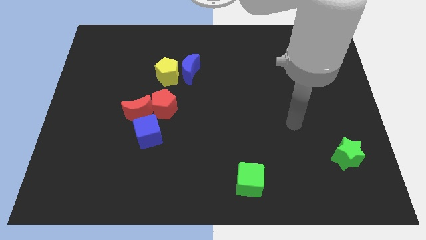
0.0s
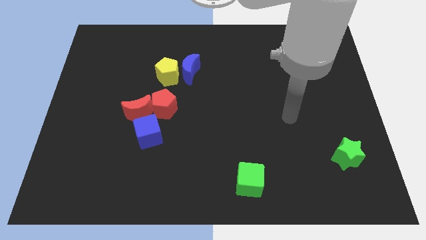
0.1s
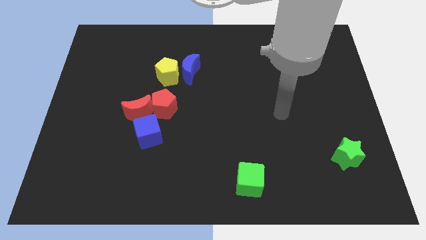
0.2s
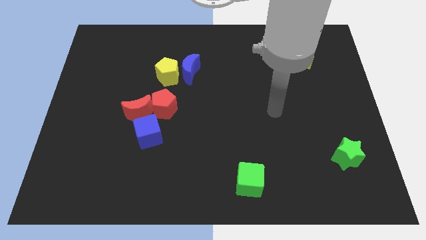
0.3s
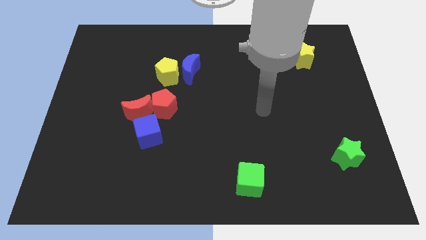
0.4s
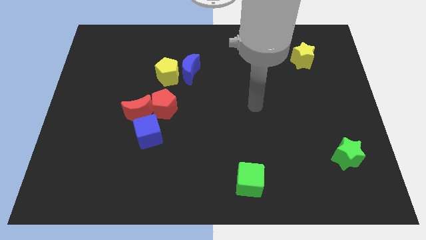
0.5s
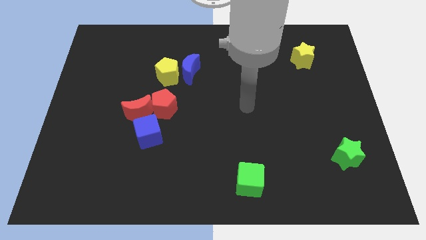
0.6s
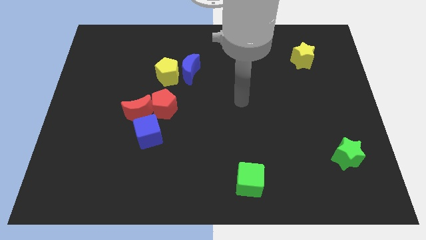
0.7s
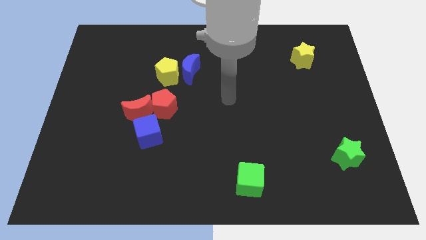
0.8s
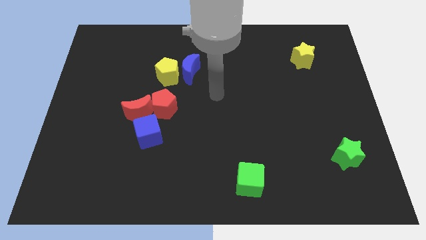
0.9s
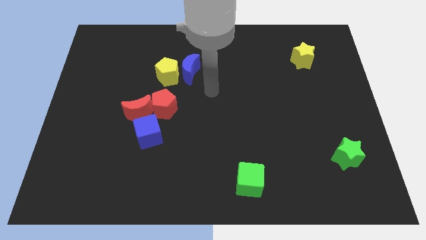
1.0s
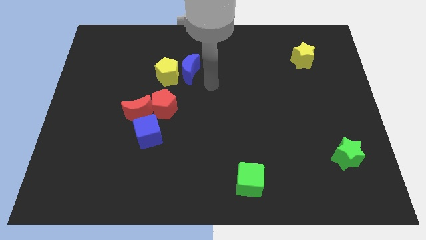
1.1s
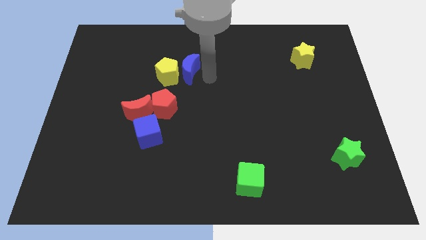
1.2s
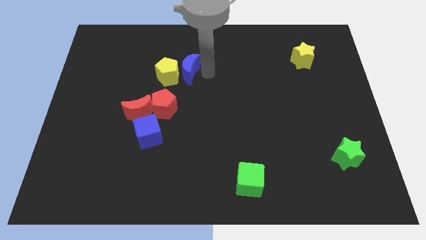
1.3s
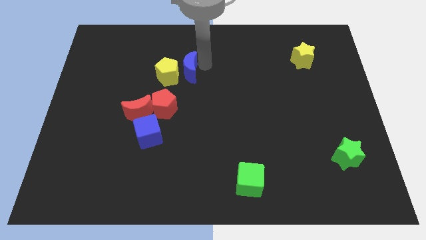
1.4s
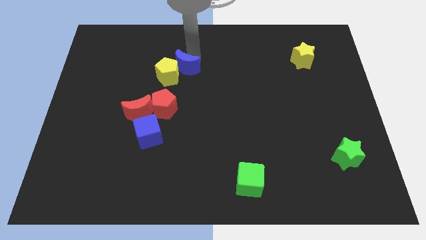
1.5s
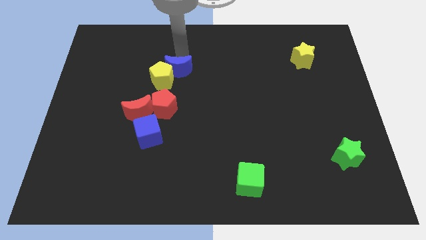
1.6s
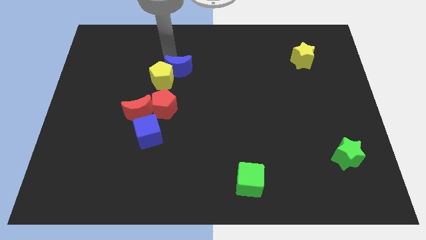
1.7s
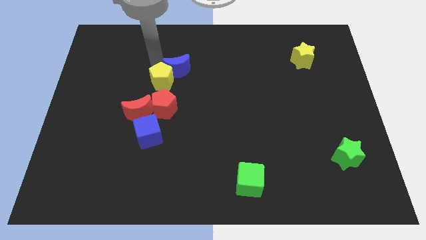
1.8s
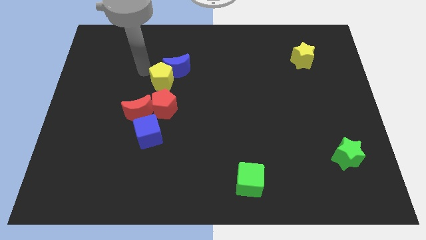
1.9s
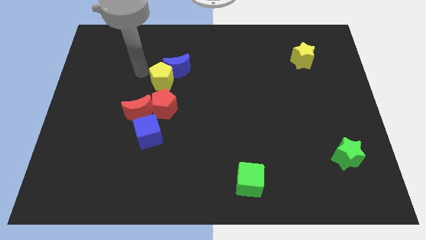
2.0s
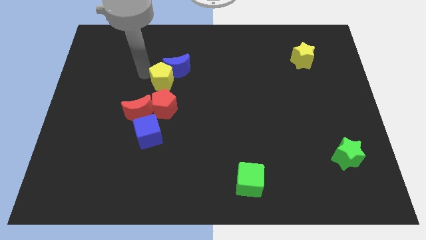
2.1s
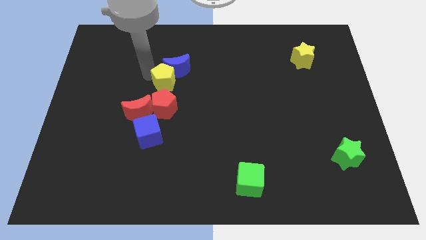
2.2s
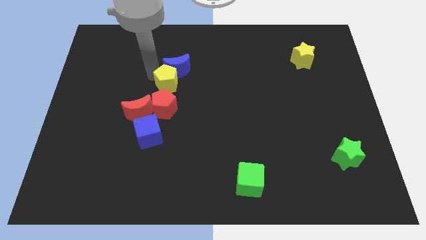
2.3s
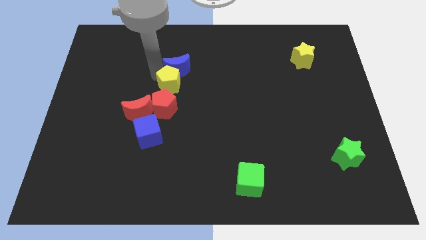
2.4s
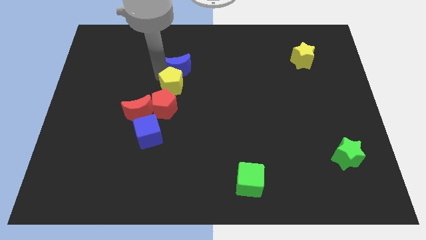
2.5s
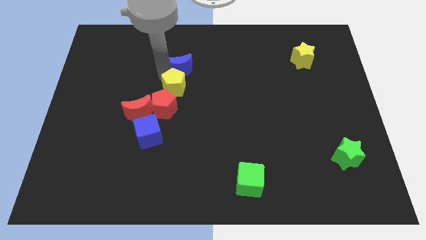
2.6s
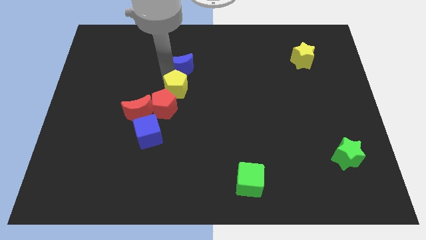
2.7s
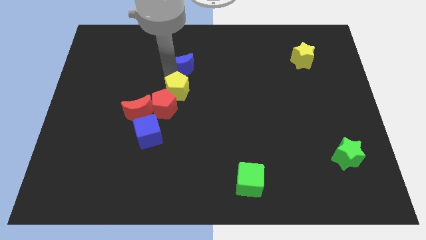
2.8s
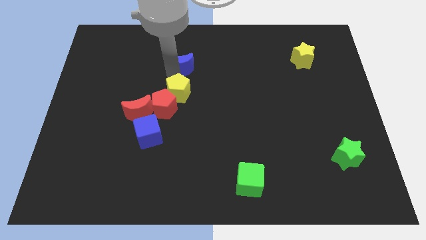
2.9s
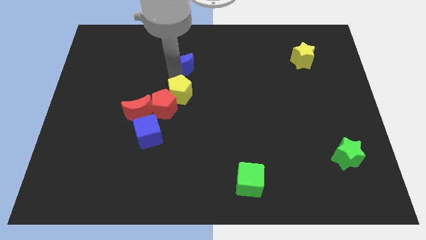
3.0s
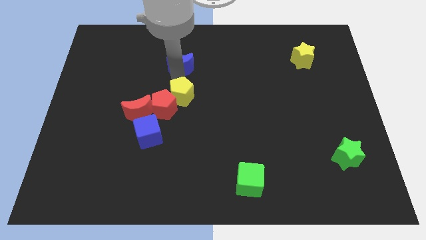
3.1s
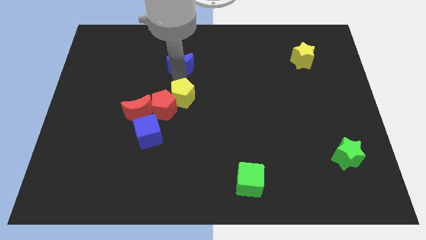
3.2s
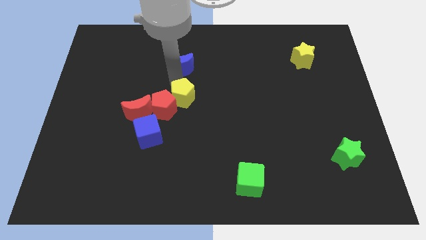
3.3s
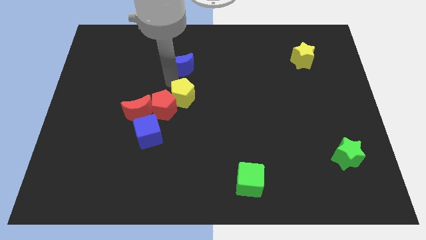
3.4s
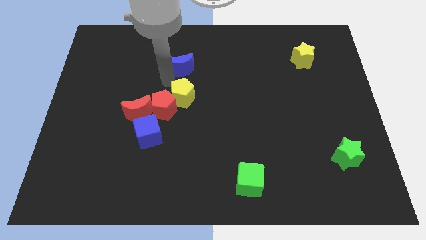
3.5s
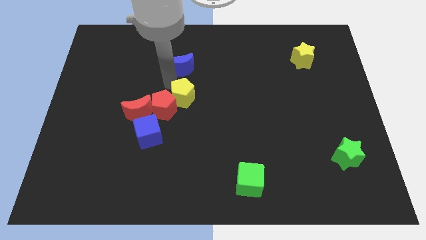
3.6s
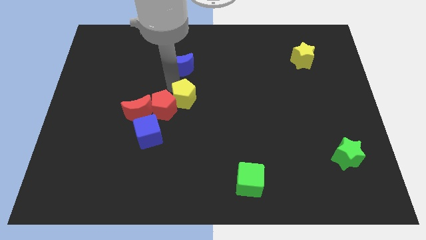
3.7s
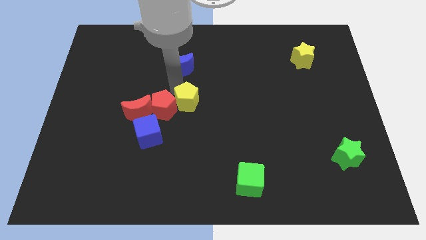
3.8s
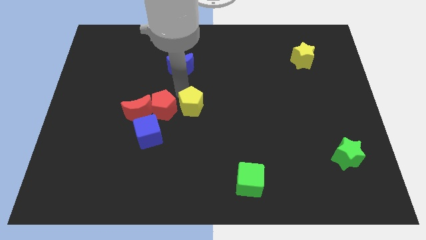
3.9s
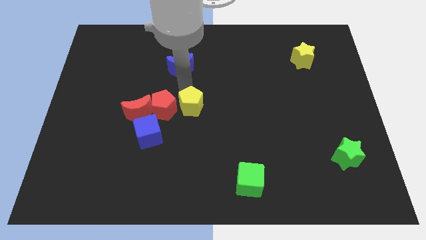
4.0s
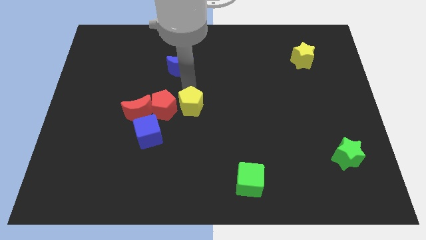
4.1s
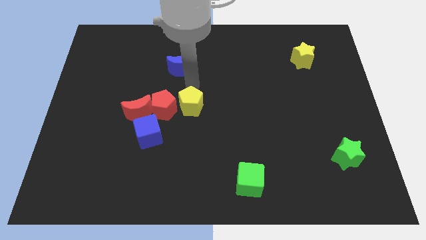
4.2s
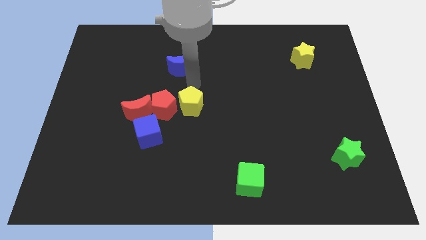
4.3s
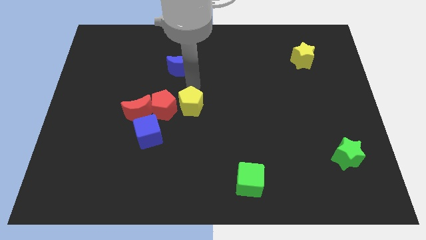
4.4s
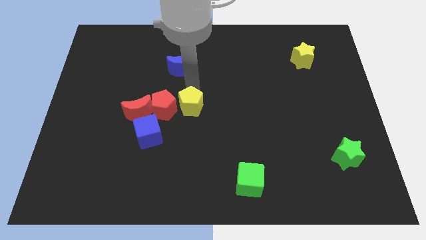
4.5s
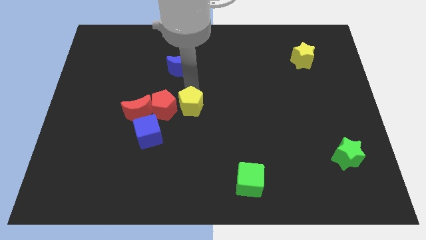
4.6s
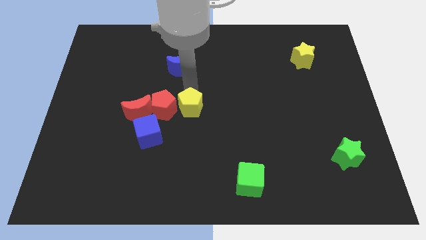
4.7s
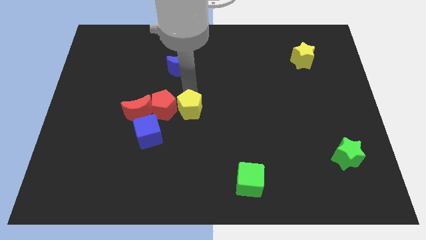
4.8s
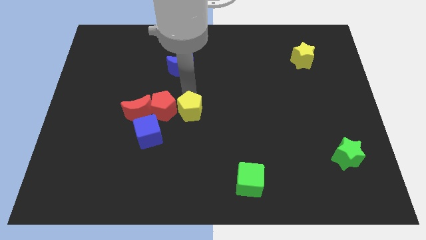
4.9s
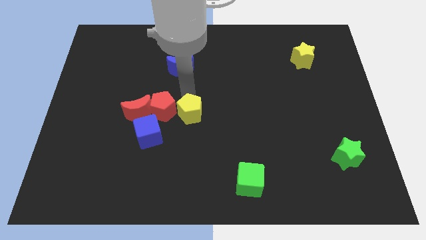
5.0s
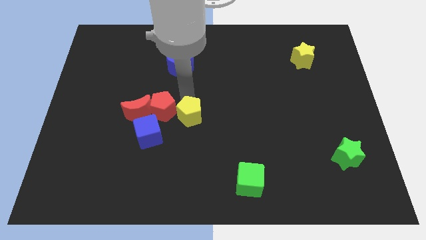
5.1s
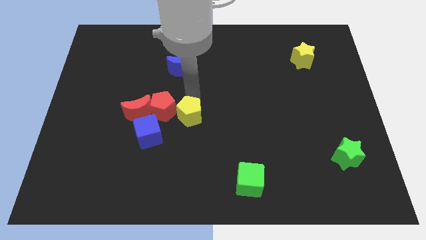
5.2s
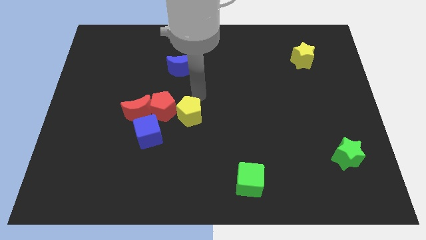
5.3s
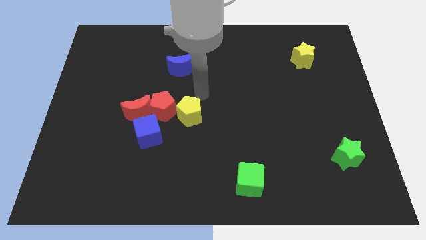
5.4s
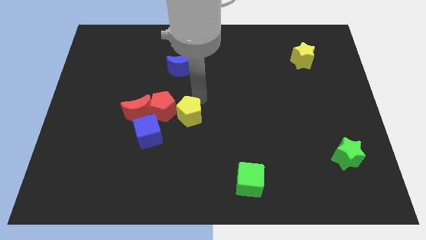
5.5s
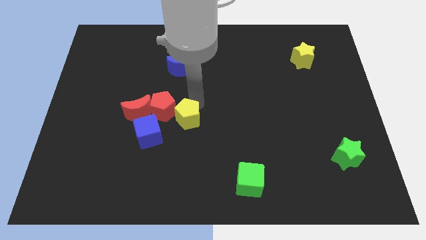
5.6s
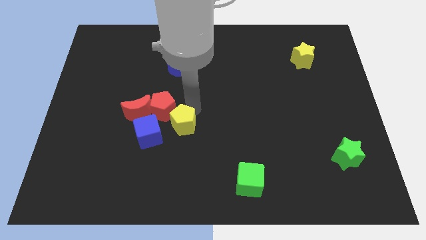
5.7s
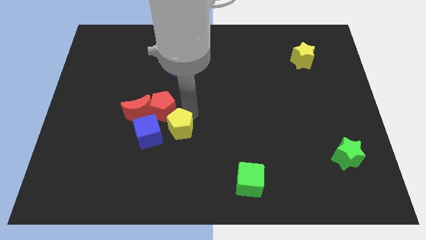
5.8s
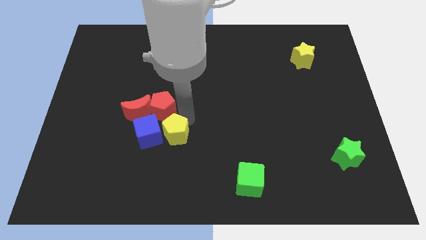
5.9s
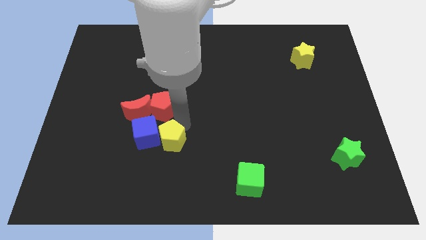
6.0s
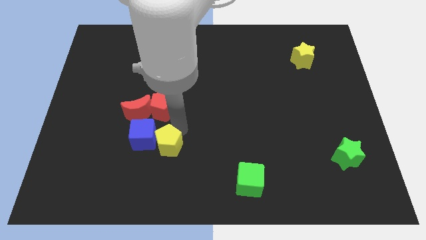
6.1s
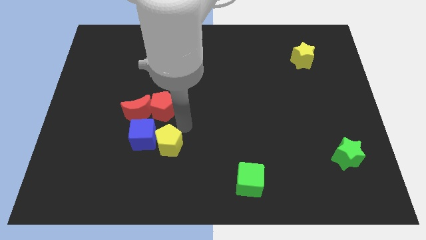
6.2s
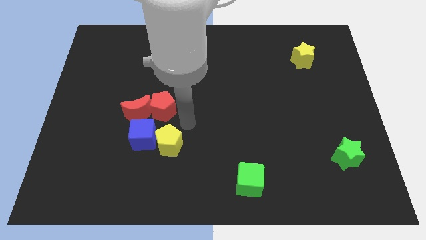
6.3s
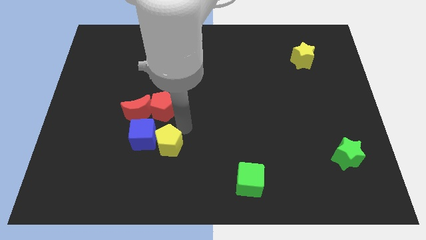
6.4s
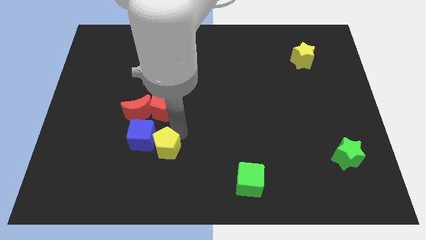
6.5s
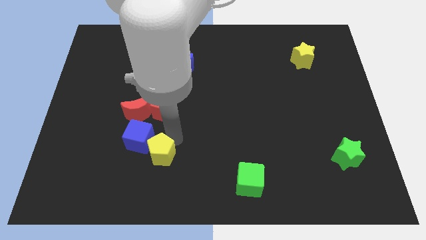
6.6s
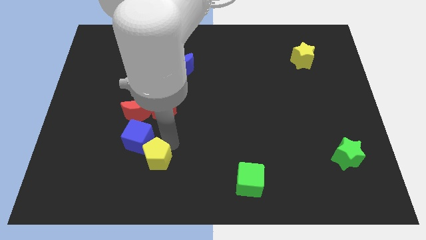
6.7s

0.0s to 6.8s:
put the yellow pentagon to the bottom side of the blue cube

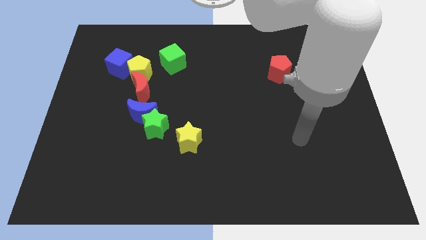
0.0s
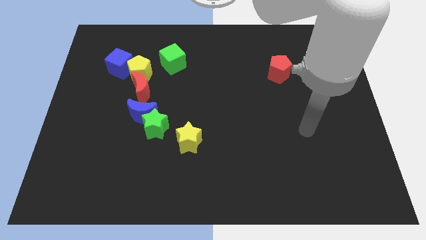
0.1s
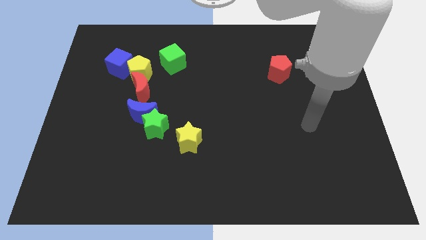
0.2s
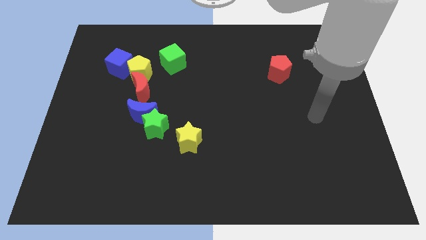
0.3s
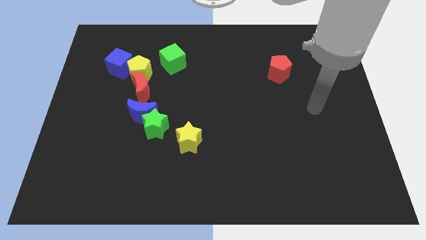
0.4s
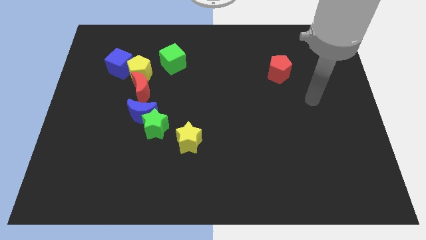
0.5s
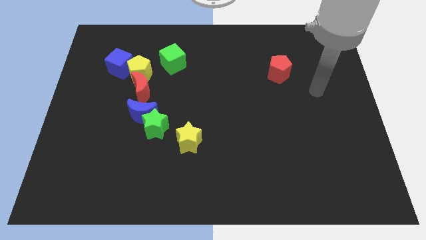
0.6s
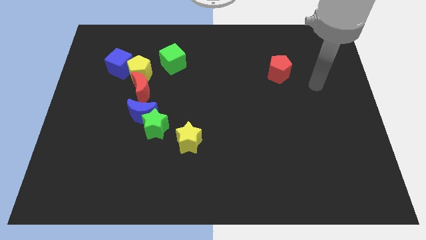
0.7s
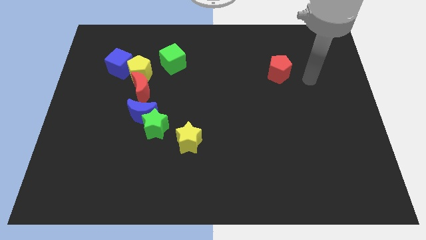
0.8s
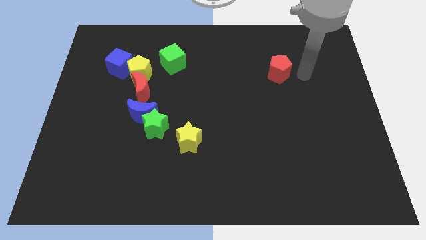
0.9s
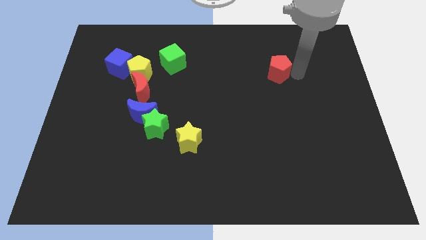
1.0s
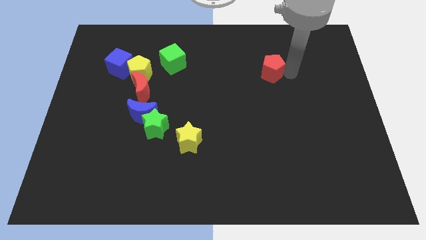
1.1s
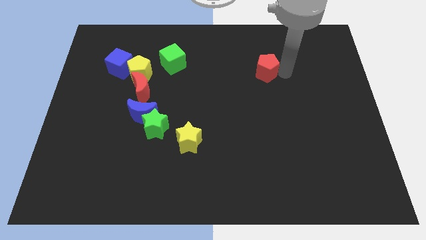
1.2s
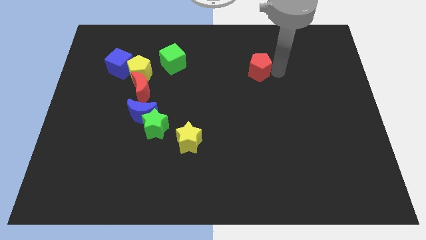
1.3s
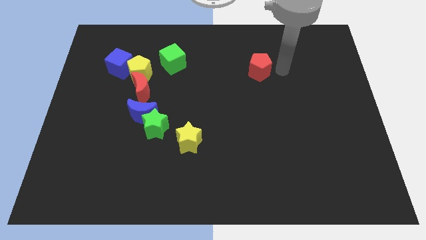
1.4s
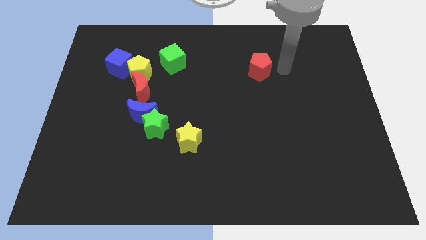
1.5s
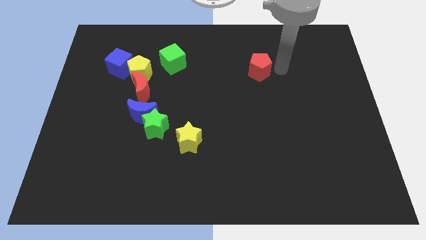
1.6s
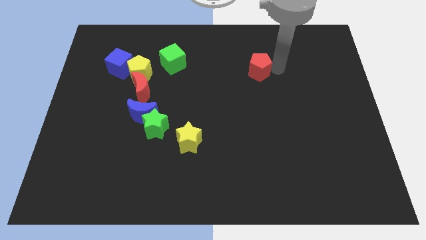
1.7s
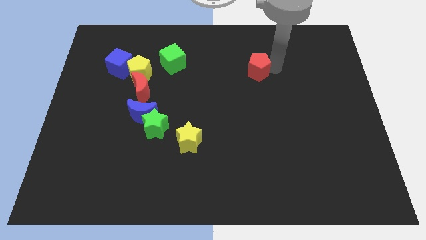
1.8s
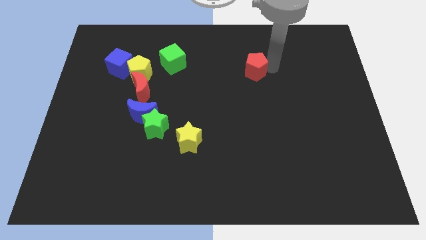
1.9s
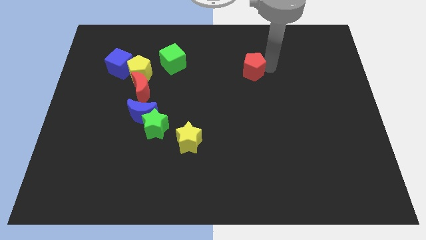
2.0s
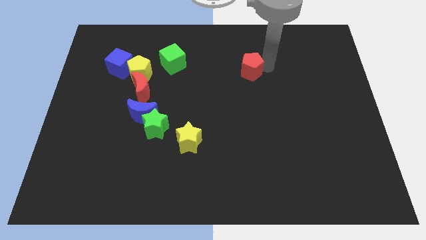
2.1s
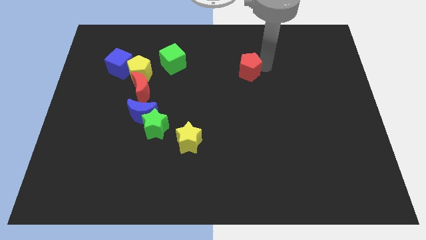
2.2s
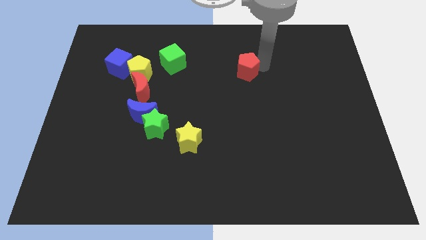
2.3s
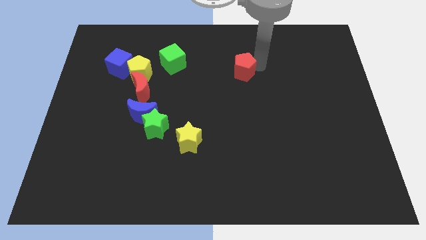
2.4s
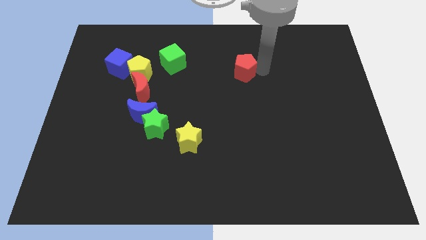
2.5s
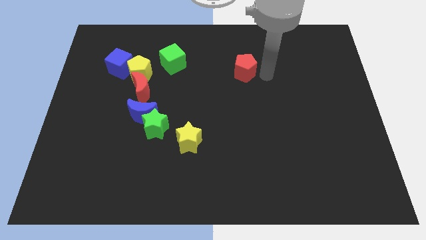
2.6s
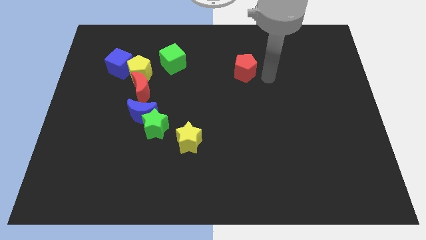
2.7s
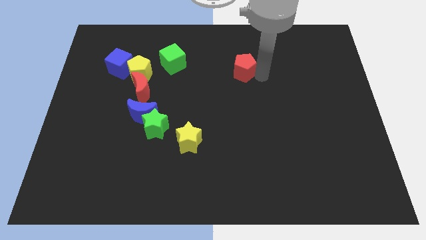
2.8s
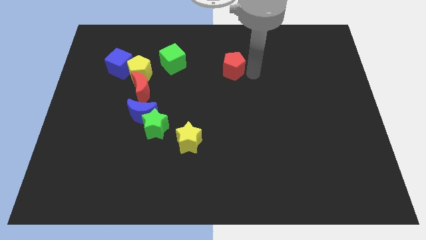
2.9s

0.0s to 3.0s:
push the red pentagon right of the green cube
